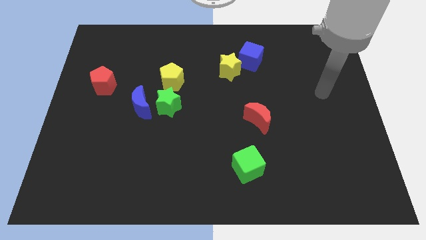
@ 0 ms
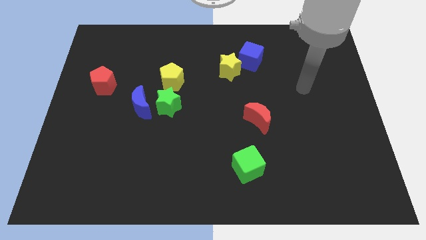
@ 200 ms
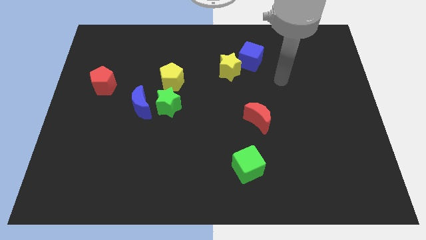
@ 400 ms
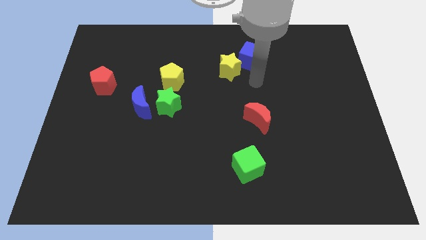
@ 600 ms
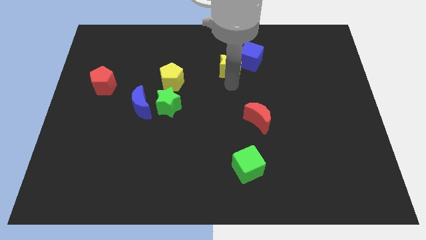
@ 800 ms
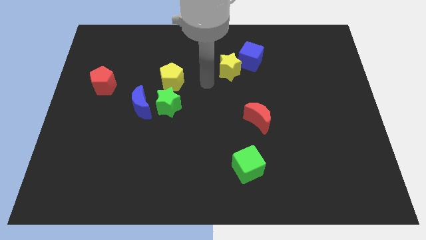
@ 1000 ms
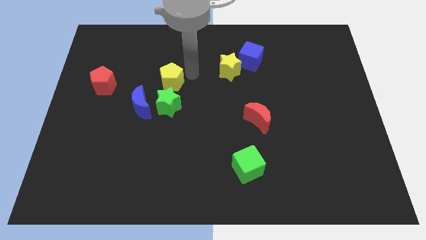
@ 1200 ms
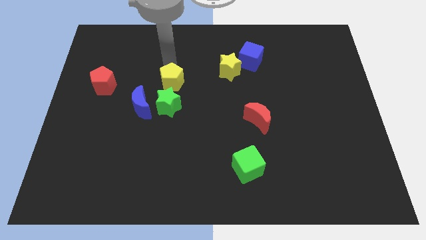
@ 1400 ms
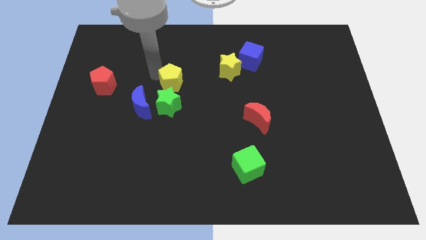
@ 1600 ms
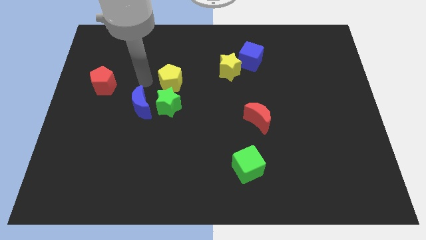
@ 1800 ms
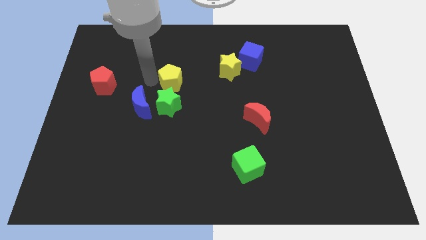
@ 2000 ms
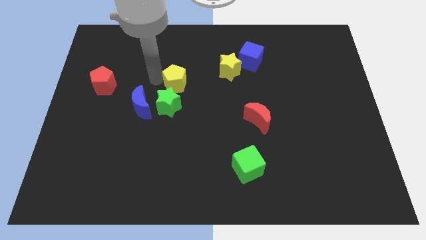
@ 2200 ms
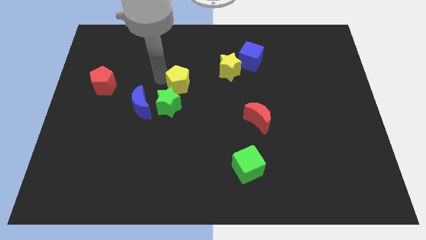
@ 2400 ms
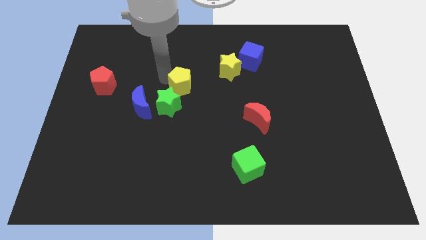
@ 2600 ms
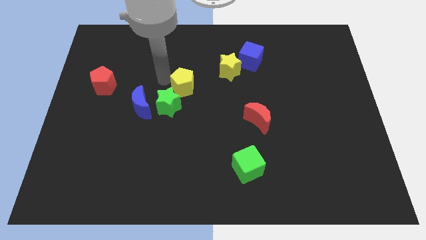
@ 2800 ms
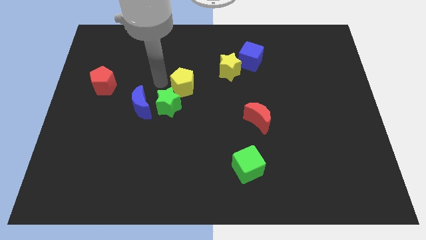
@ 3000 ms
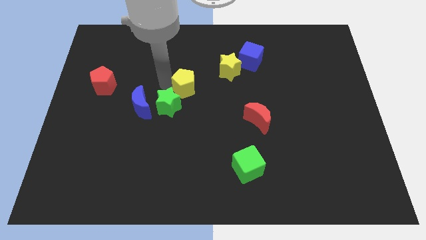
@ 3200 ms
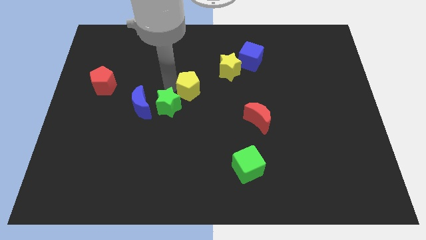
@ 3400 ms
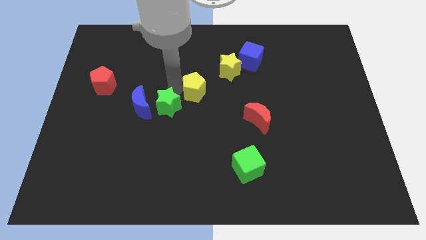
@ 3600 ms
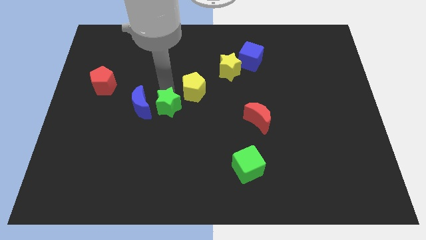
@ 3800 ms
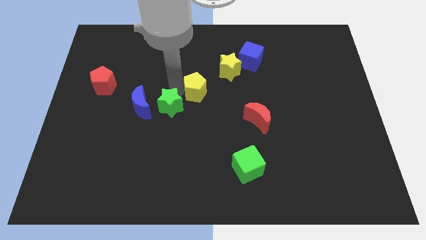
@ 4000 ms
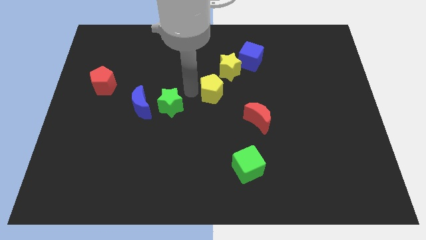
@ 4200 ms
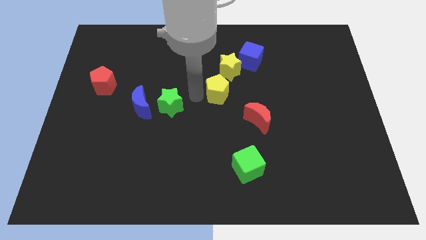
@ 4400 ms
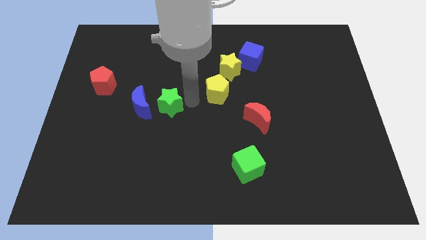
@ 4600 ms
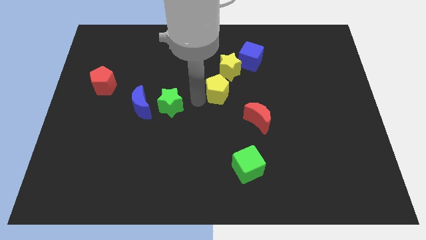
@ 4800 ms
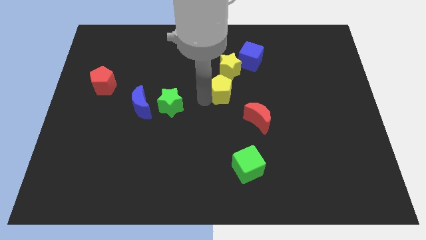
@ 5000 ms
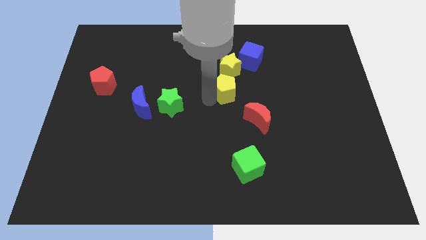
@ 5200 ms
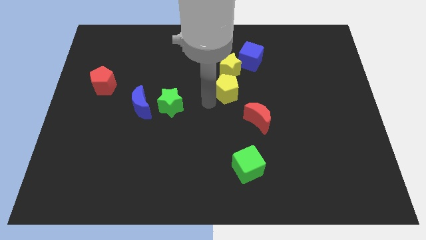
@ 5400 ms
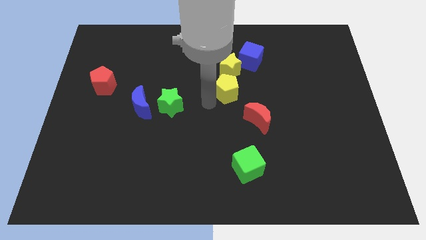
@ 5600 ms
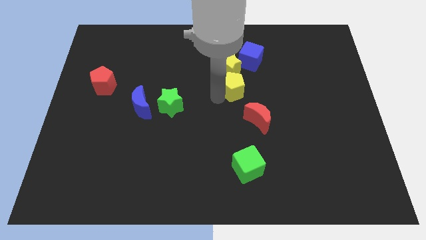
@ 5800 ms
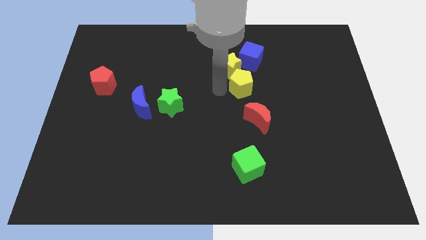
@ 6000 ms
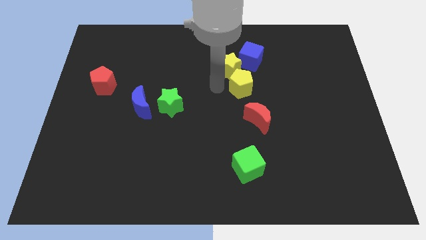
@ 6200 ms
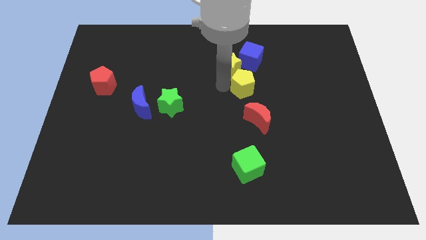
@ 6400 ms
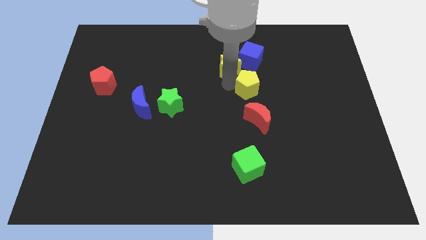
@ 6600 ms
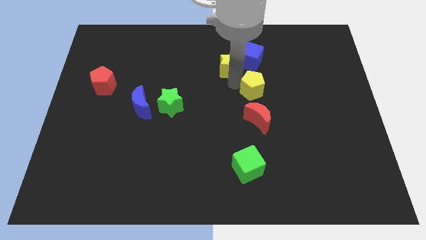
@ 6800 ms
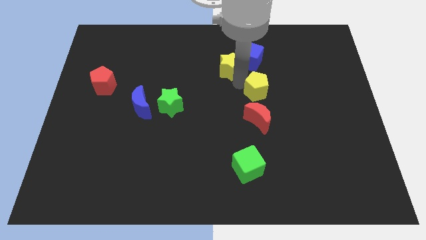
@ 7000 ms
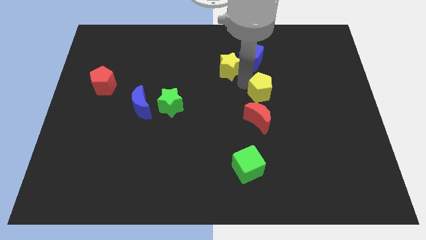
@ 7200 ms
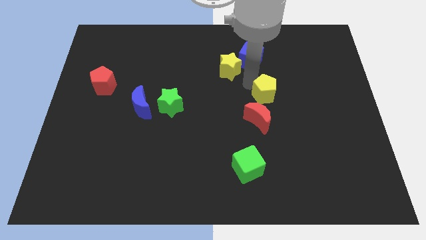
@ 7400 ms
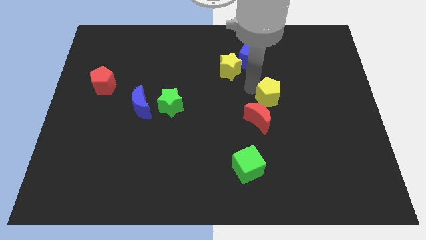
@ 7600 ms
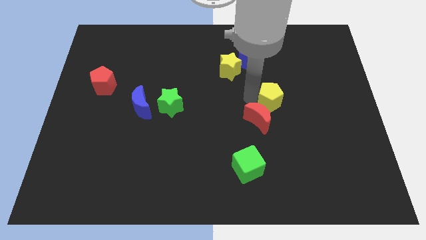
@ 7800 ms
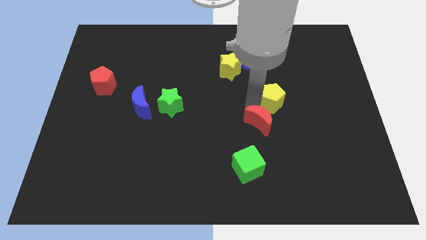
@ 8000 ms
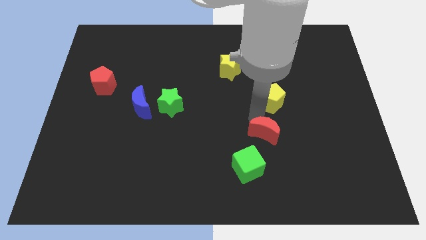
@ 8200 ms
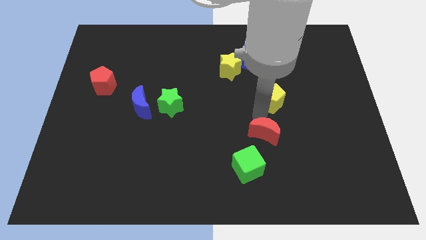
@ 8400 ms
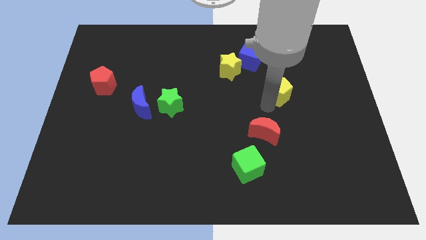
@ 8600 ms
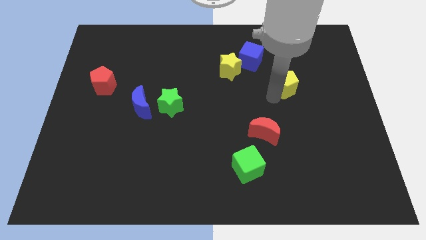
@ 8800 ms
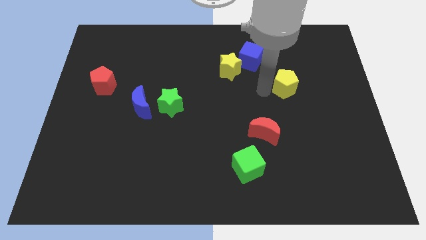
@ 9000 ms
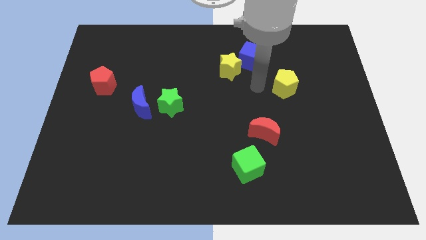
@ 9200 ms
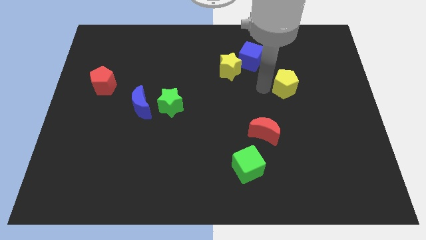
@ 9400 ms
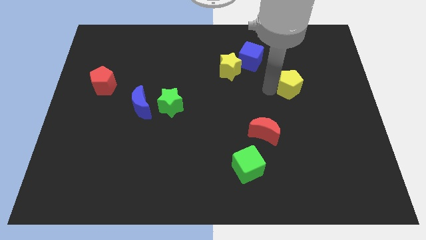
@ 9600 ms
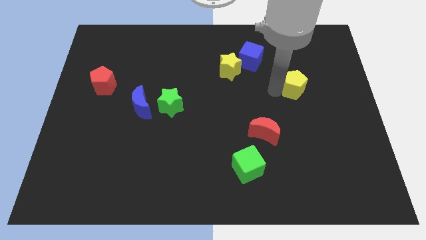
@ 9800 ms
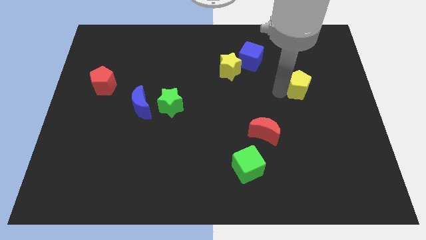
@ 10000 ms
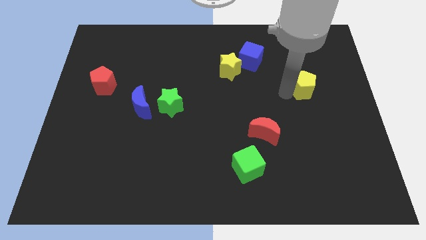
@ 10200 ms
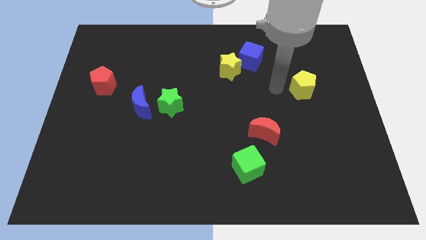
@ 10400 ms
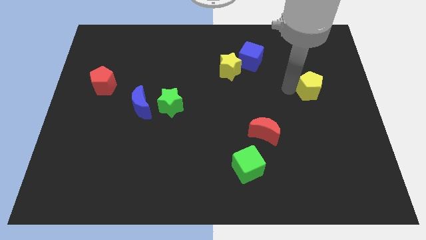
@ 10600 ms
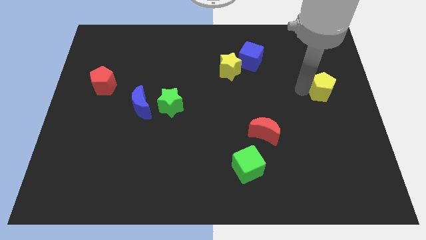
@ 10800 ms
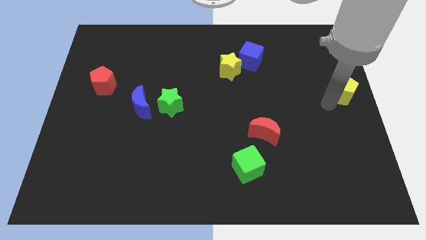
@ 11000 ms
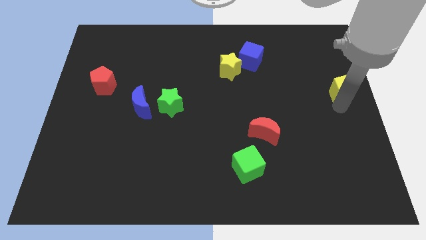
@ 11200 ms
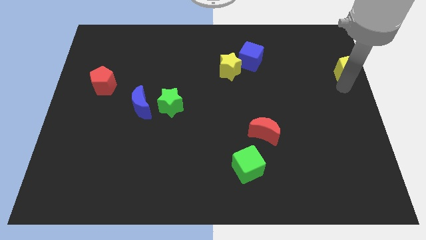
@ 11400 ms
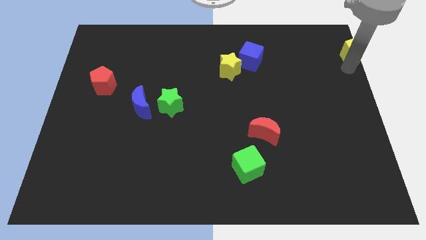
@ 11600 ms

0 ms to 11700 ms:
move the yellow pentagon to the top right

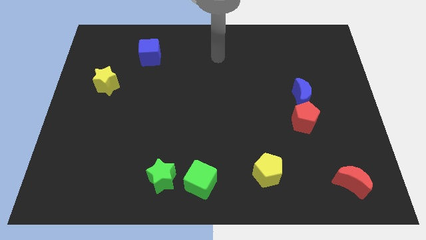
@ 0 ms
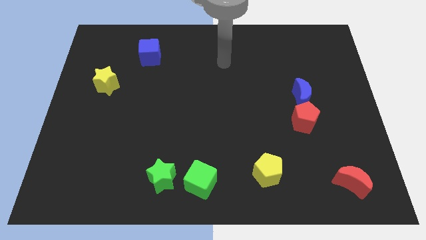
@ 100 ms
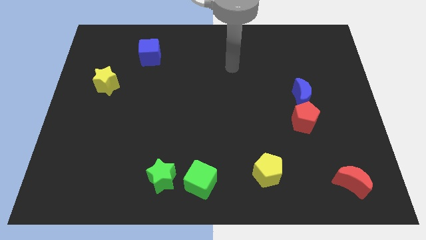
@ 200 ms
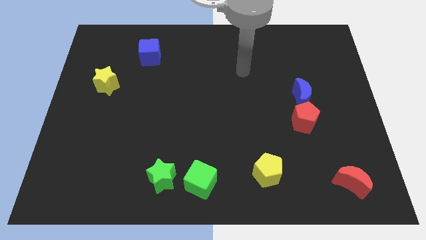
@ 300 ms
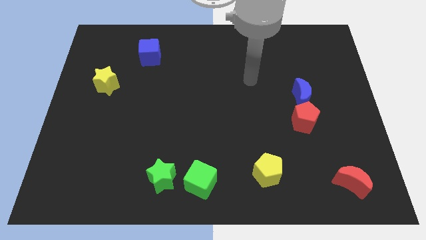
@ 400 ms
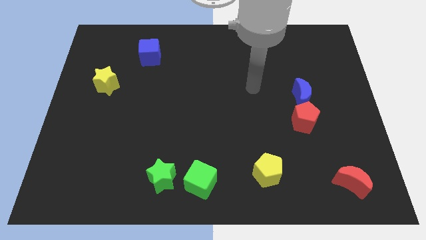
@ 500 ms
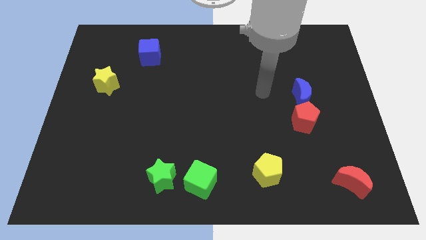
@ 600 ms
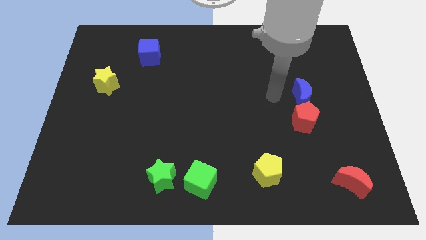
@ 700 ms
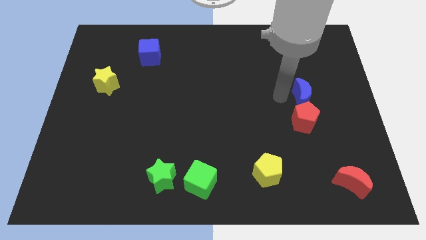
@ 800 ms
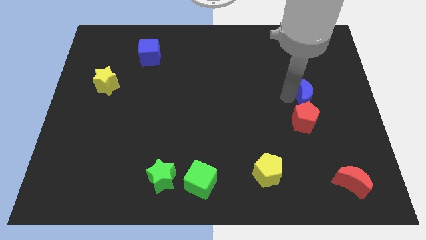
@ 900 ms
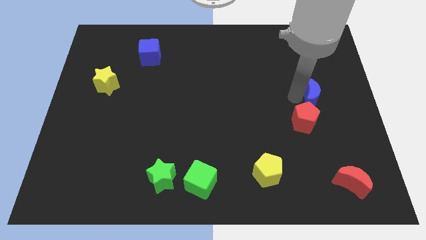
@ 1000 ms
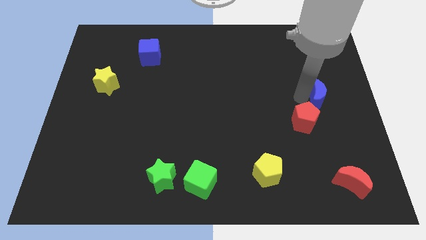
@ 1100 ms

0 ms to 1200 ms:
put the blue moon to the right side
